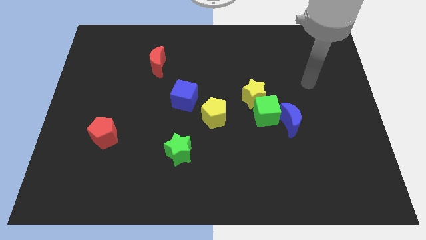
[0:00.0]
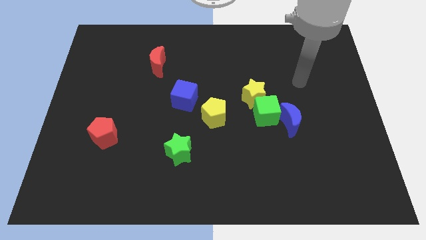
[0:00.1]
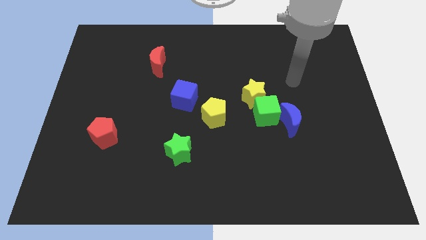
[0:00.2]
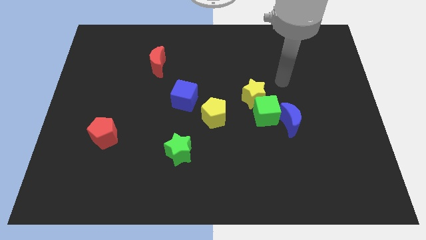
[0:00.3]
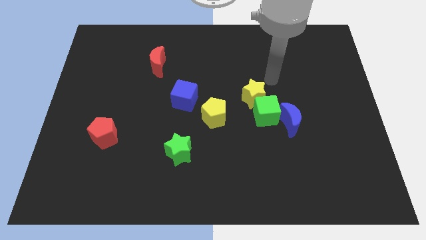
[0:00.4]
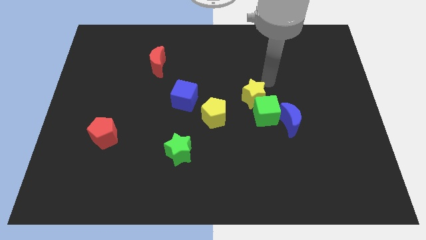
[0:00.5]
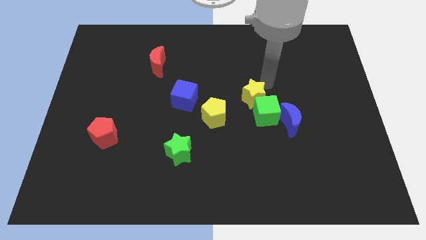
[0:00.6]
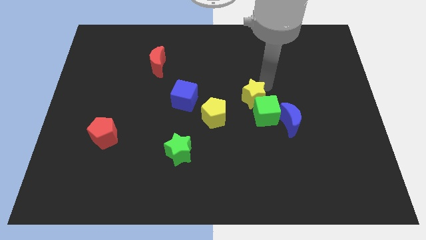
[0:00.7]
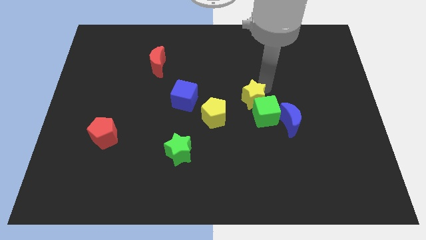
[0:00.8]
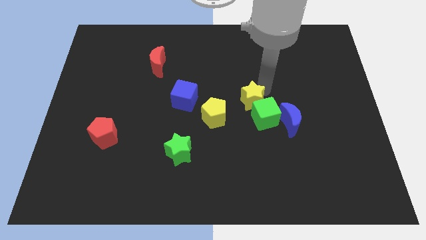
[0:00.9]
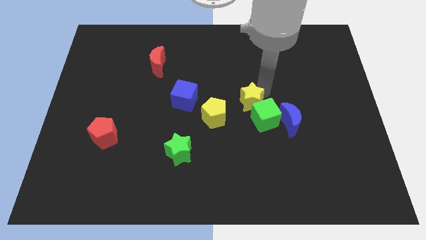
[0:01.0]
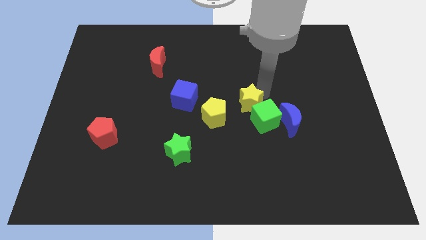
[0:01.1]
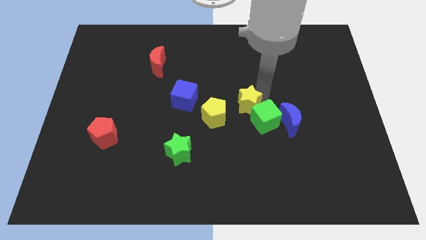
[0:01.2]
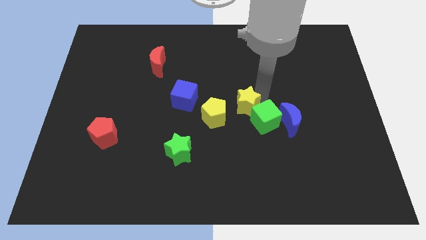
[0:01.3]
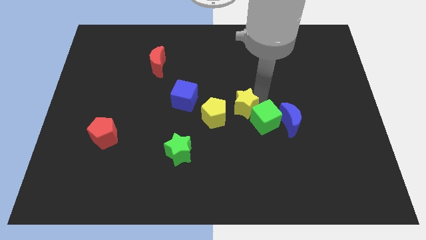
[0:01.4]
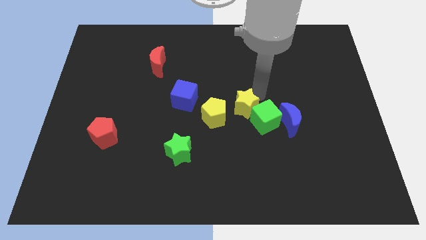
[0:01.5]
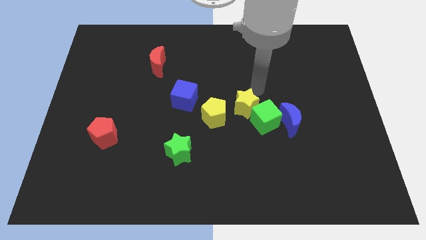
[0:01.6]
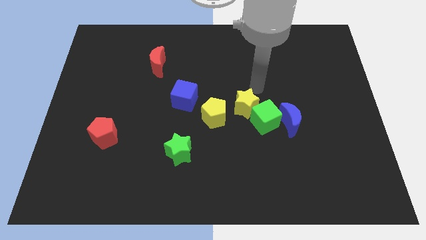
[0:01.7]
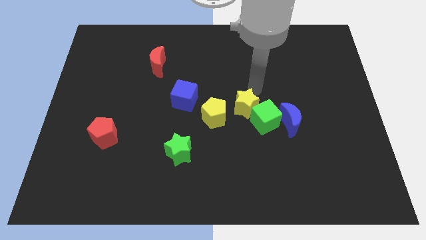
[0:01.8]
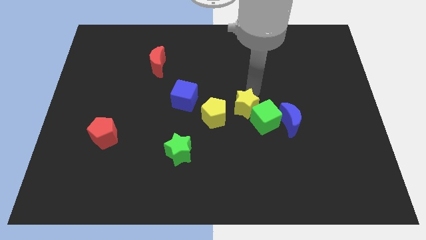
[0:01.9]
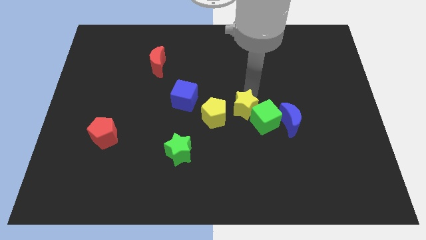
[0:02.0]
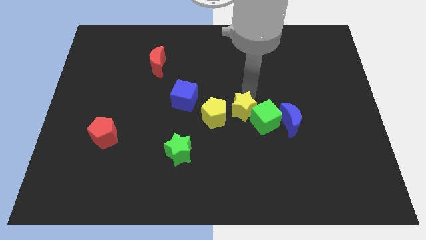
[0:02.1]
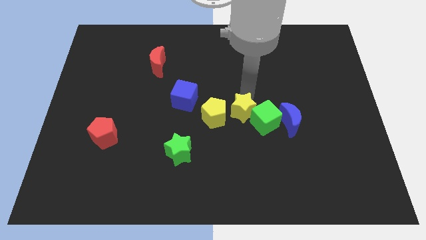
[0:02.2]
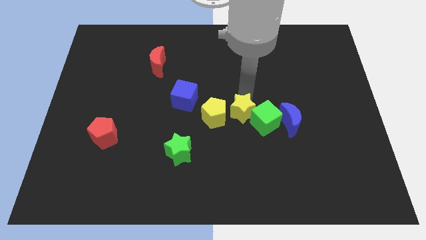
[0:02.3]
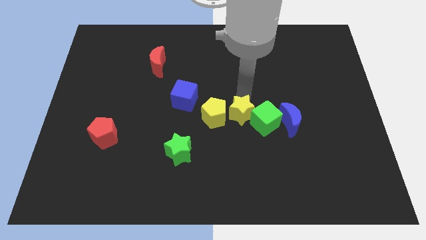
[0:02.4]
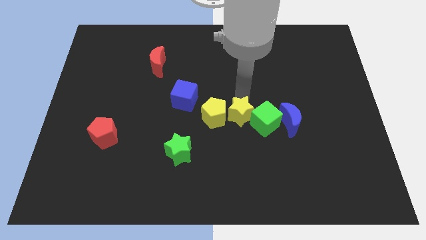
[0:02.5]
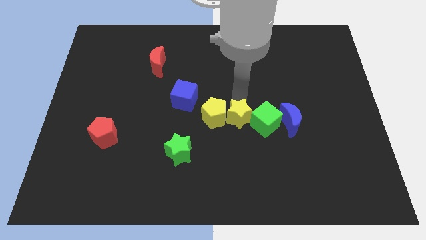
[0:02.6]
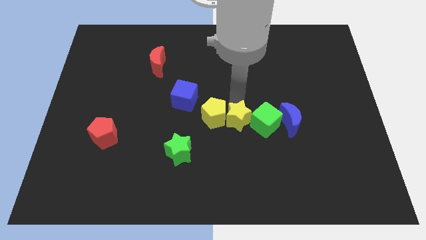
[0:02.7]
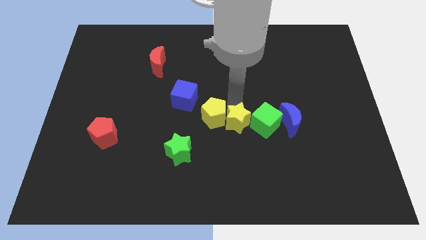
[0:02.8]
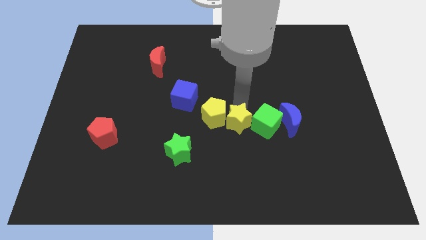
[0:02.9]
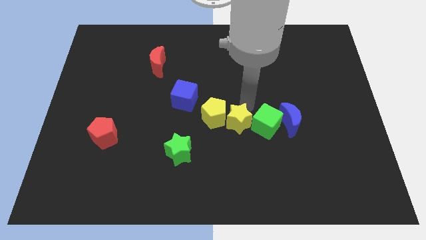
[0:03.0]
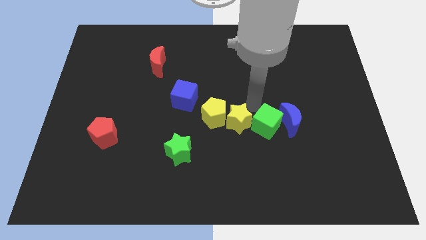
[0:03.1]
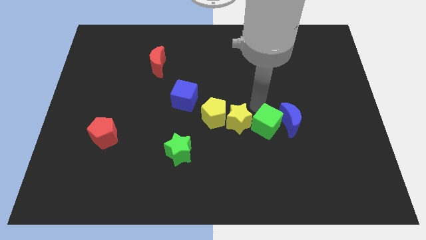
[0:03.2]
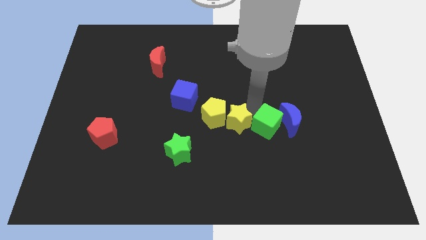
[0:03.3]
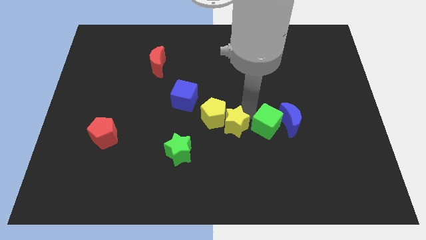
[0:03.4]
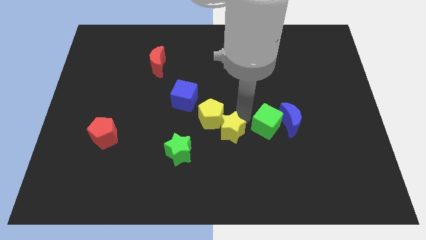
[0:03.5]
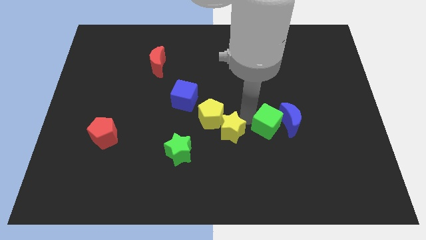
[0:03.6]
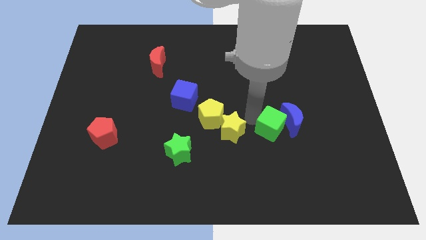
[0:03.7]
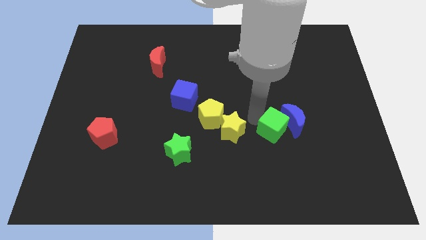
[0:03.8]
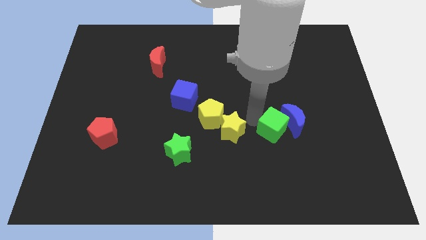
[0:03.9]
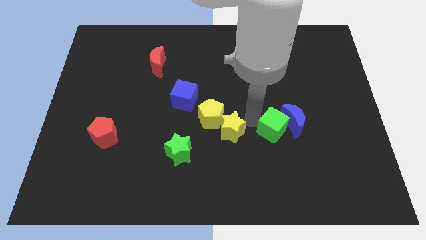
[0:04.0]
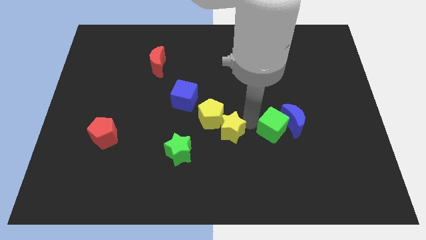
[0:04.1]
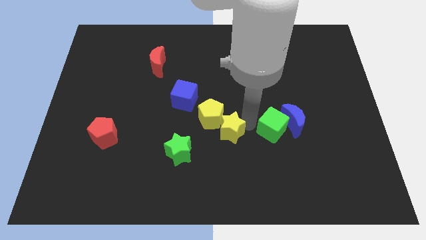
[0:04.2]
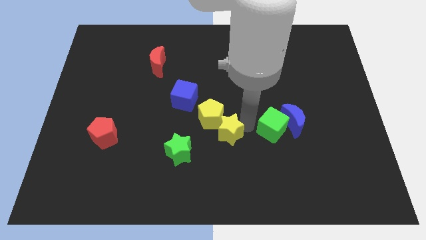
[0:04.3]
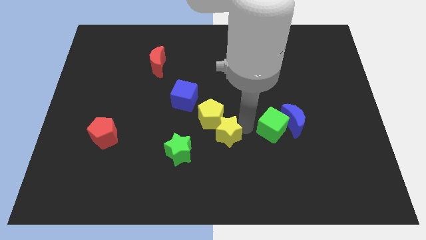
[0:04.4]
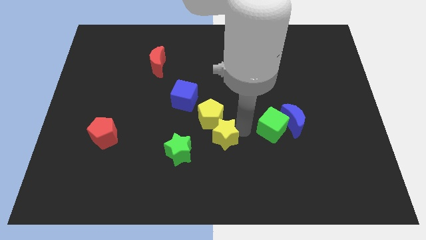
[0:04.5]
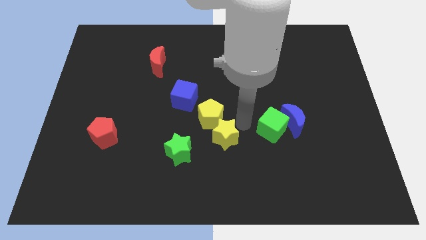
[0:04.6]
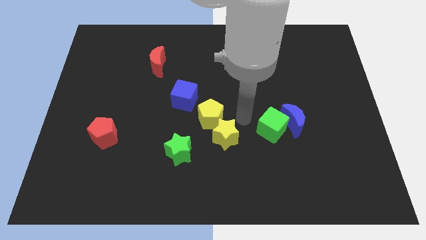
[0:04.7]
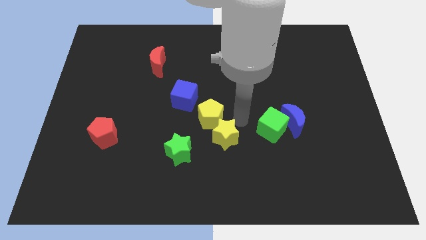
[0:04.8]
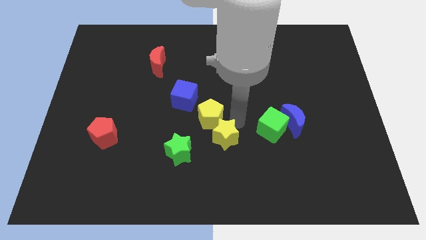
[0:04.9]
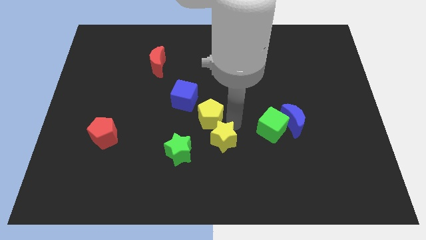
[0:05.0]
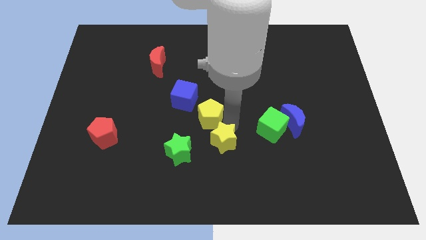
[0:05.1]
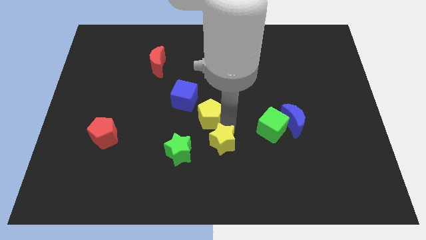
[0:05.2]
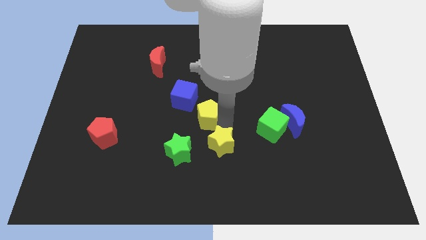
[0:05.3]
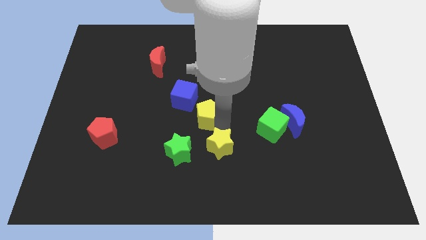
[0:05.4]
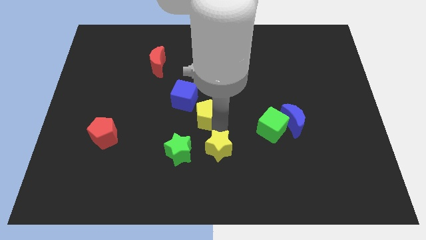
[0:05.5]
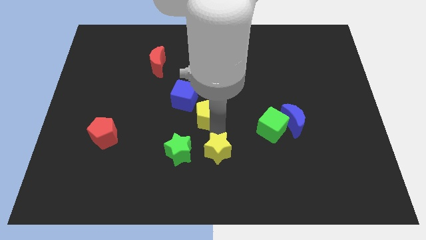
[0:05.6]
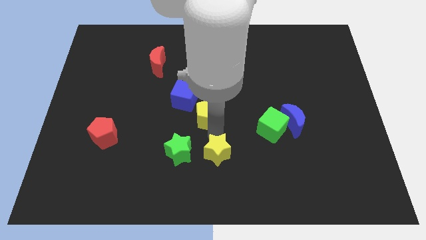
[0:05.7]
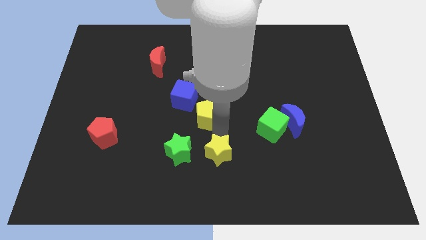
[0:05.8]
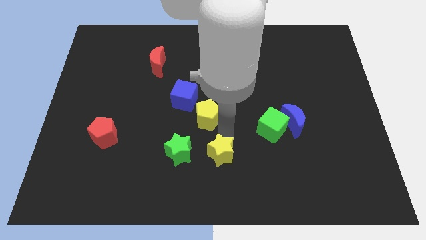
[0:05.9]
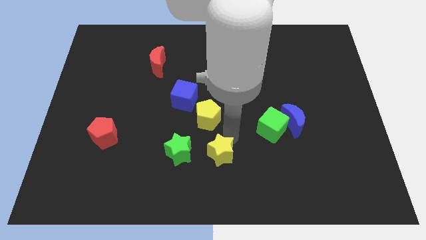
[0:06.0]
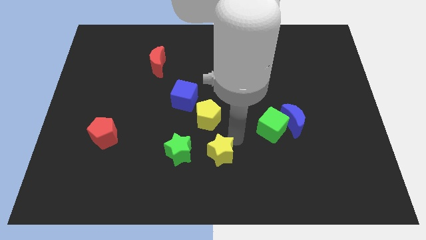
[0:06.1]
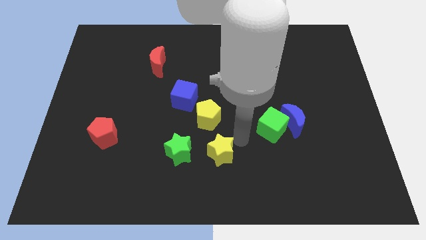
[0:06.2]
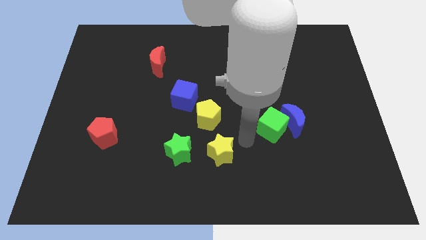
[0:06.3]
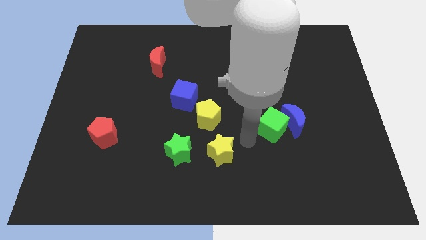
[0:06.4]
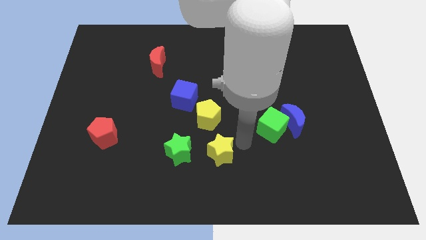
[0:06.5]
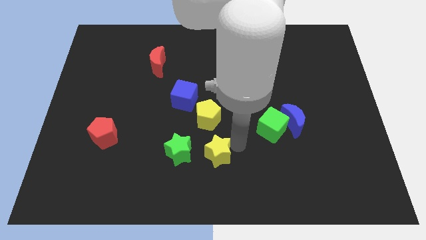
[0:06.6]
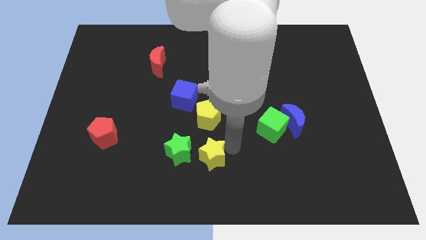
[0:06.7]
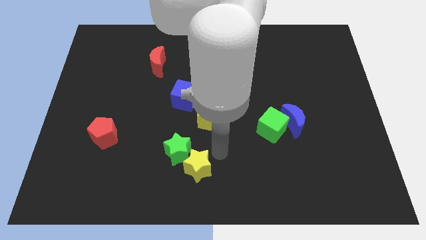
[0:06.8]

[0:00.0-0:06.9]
push the yellow star diagonally down and to the left

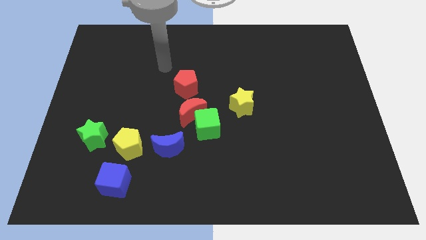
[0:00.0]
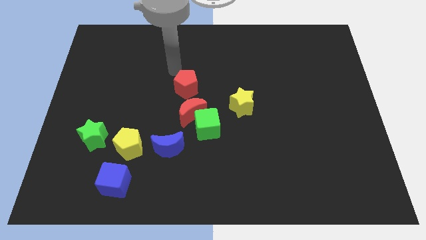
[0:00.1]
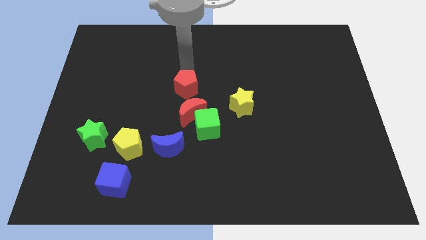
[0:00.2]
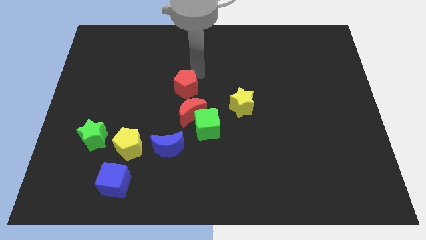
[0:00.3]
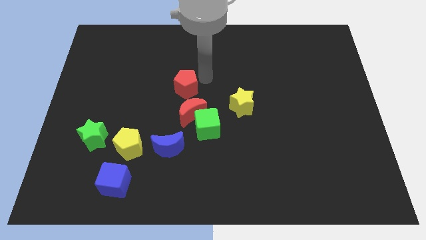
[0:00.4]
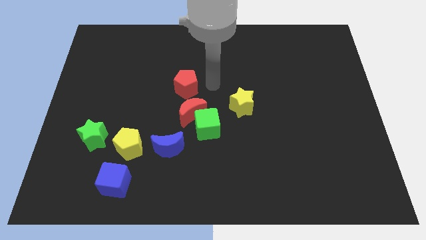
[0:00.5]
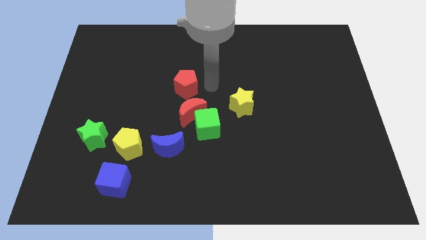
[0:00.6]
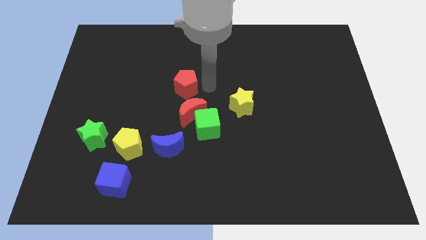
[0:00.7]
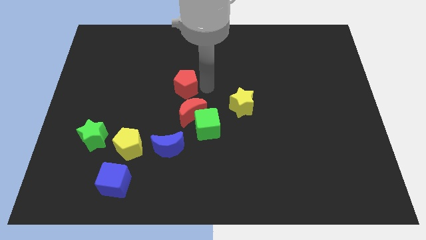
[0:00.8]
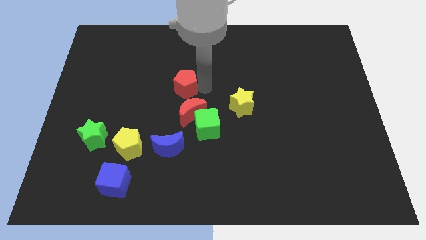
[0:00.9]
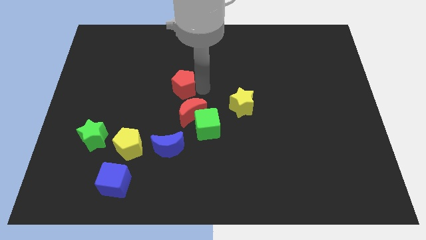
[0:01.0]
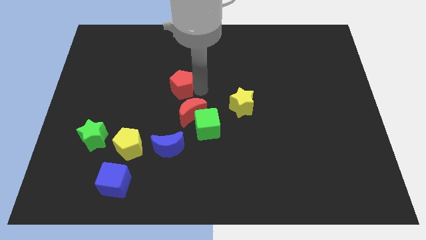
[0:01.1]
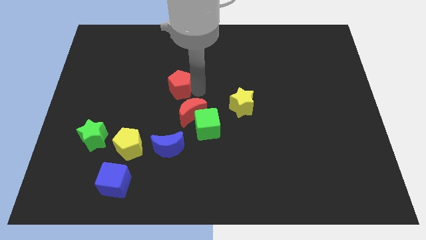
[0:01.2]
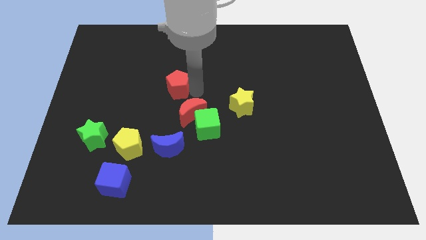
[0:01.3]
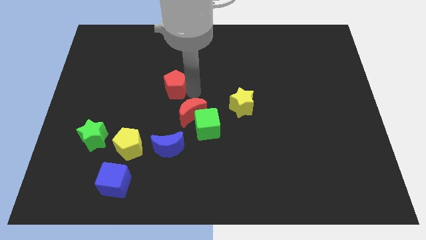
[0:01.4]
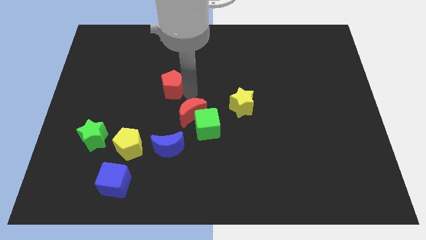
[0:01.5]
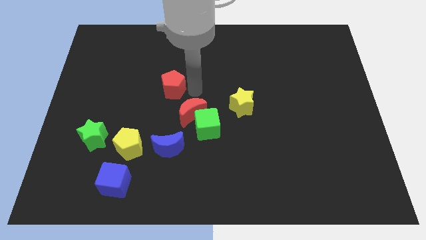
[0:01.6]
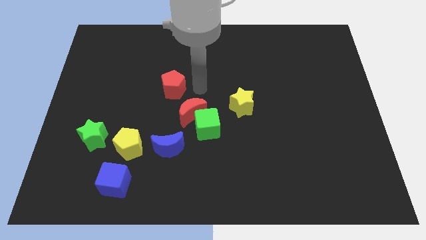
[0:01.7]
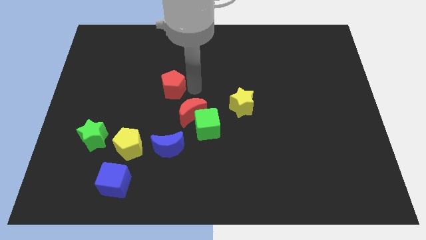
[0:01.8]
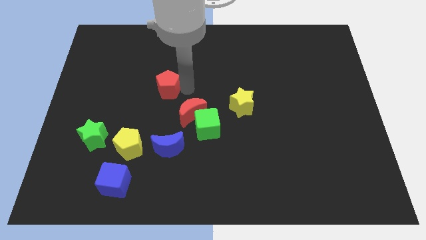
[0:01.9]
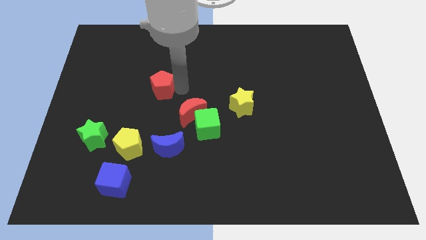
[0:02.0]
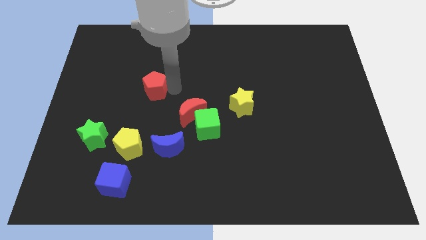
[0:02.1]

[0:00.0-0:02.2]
slide the red pentagon to the left somewhat
